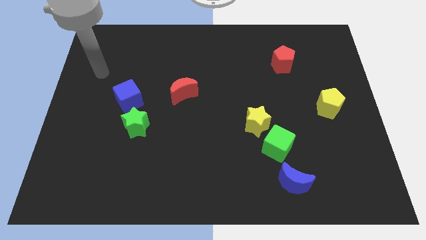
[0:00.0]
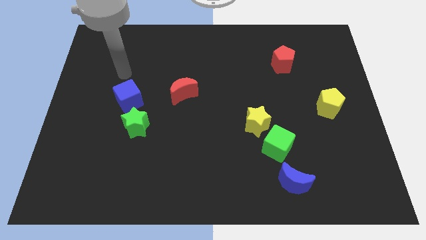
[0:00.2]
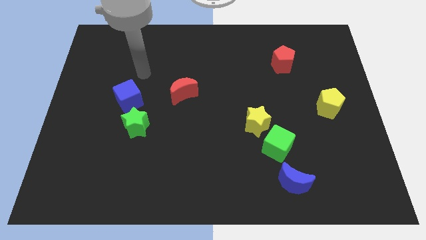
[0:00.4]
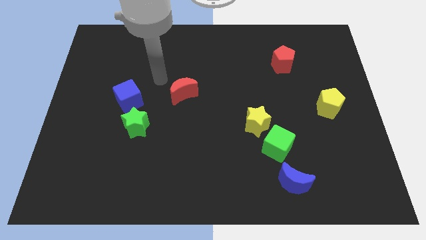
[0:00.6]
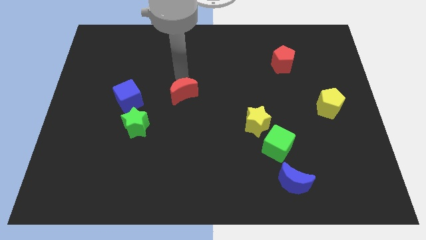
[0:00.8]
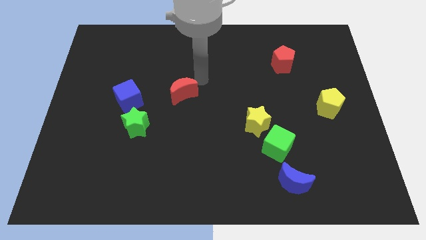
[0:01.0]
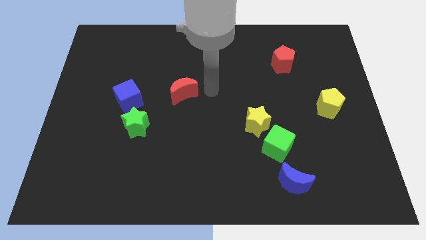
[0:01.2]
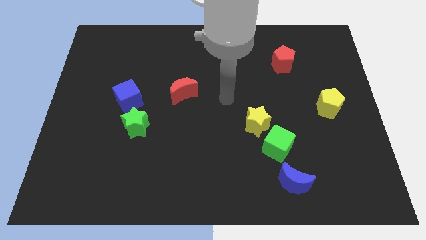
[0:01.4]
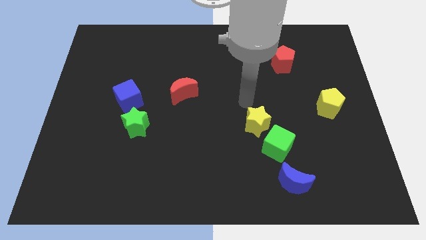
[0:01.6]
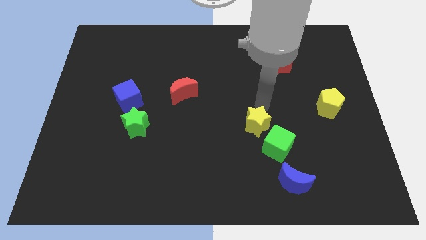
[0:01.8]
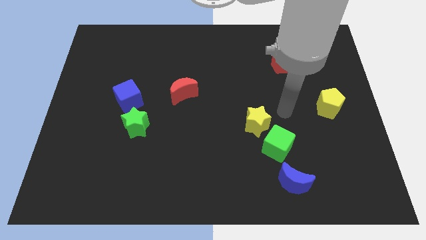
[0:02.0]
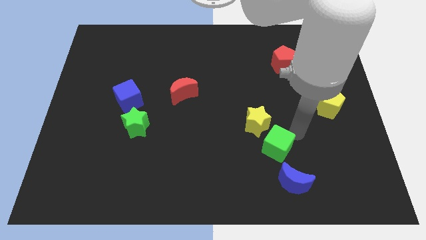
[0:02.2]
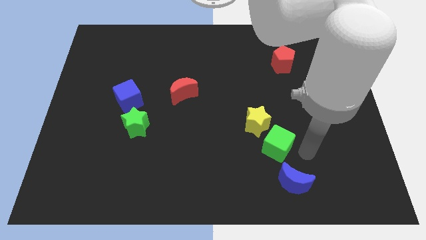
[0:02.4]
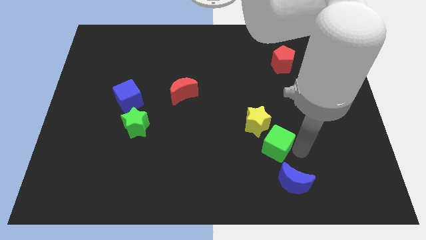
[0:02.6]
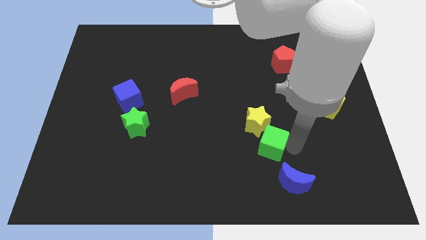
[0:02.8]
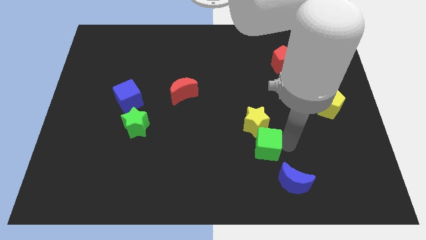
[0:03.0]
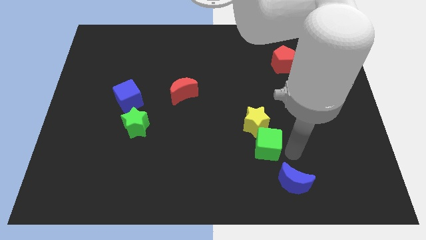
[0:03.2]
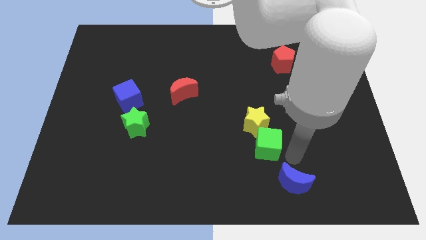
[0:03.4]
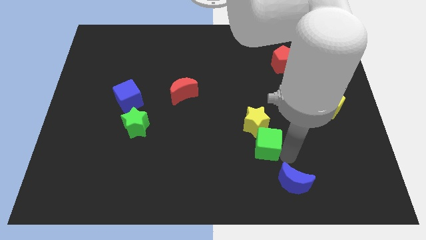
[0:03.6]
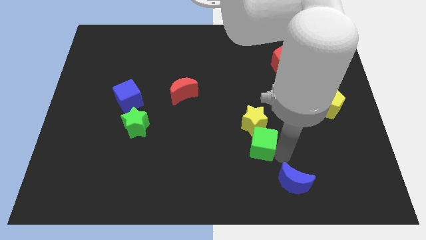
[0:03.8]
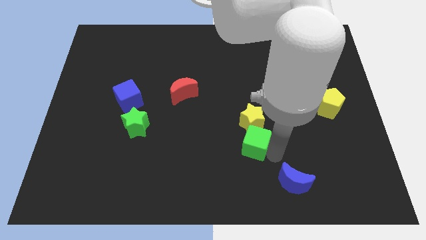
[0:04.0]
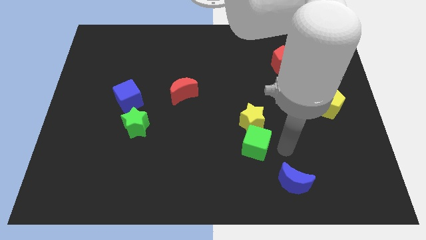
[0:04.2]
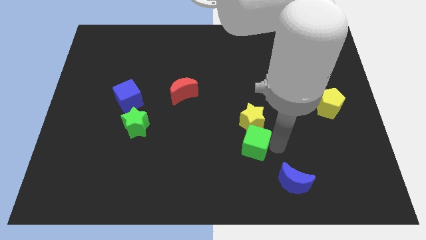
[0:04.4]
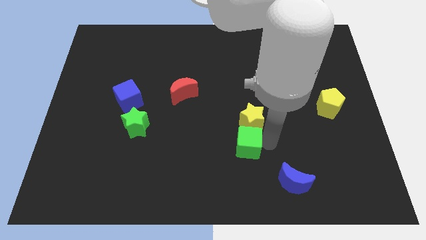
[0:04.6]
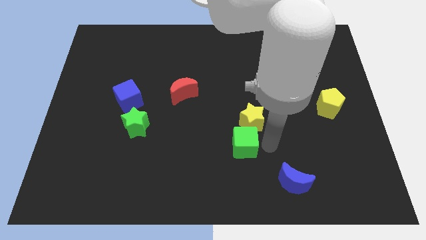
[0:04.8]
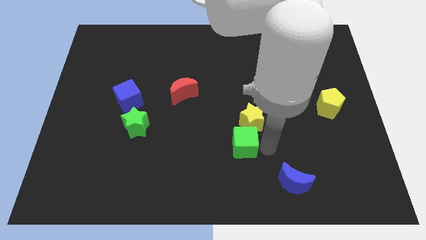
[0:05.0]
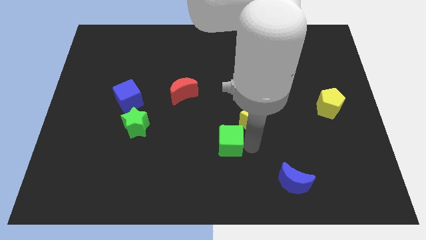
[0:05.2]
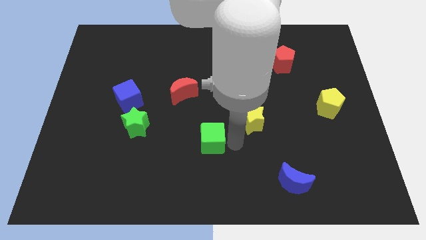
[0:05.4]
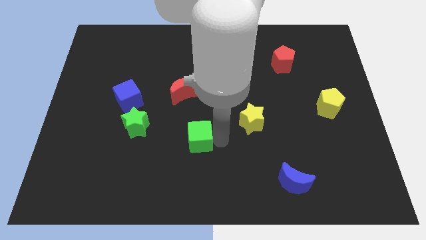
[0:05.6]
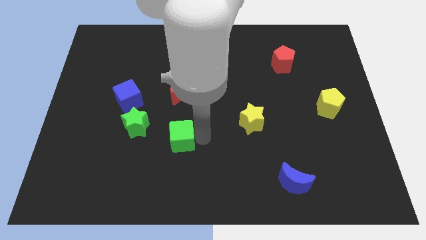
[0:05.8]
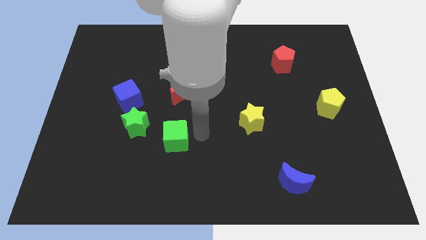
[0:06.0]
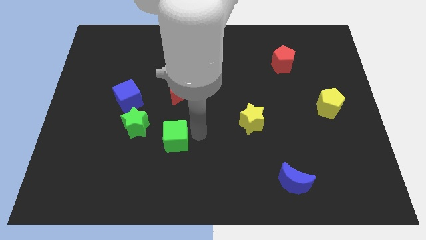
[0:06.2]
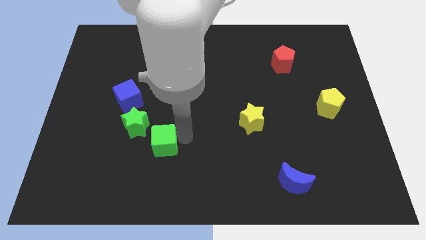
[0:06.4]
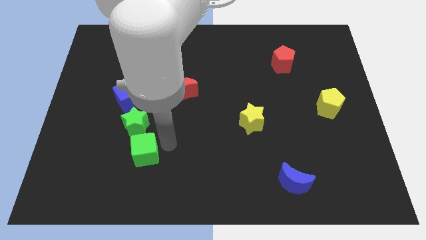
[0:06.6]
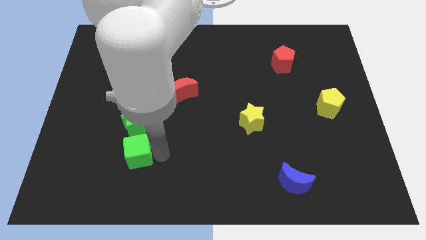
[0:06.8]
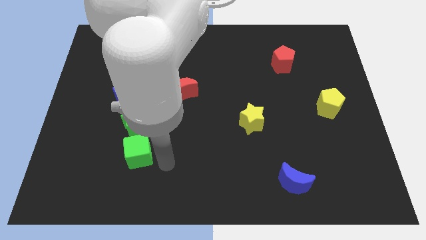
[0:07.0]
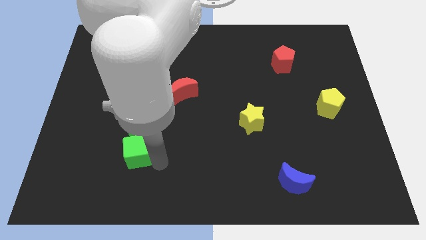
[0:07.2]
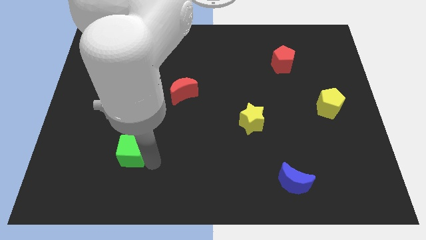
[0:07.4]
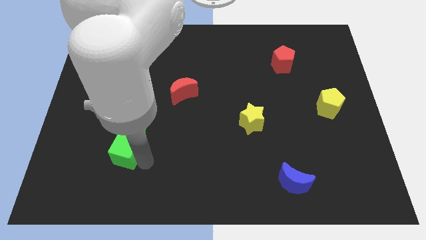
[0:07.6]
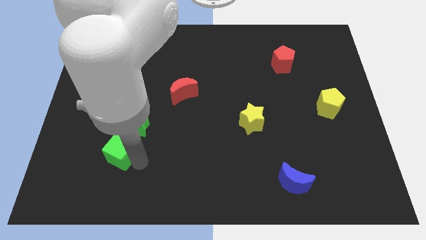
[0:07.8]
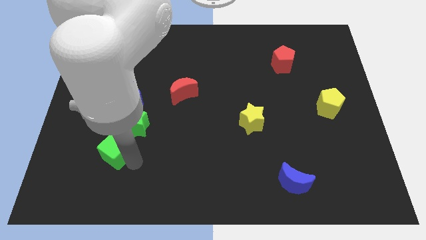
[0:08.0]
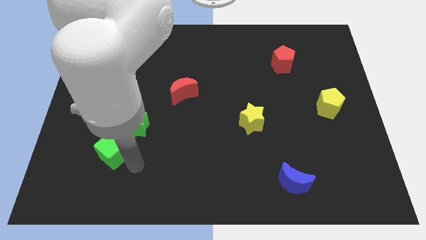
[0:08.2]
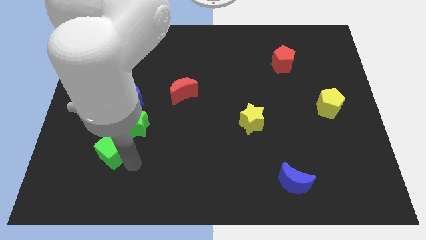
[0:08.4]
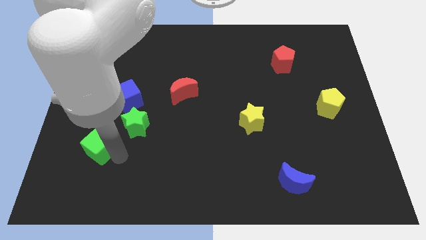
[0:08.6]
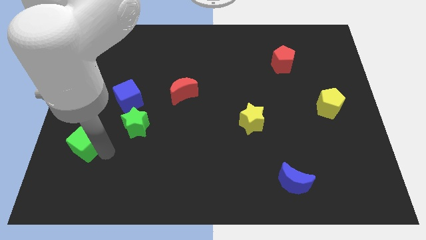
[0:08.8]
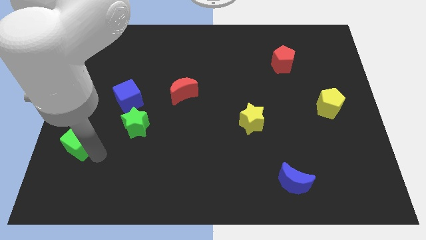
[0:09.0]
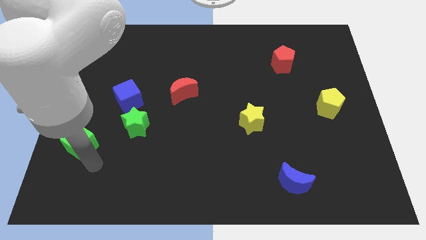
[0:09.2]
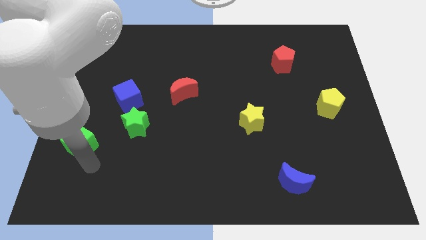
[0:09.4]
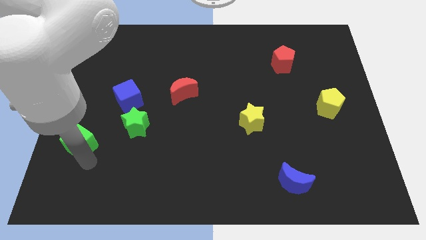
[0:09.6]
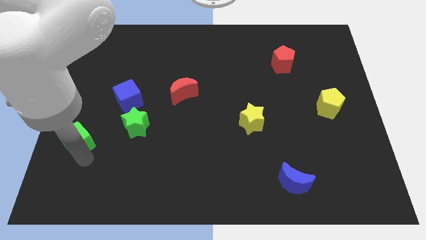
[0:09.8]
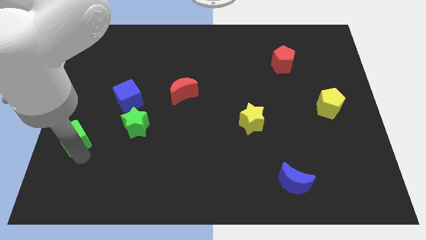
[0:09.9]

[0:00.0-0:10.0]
slide the green cube to the center left

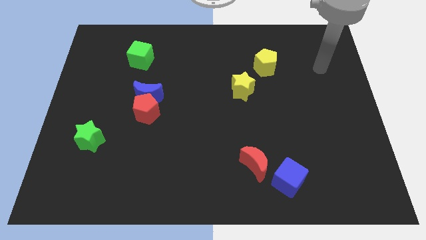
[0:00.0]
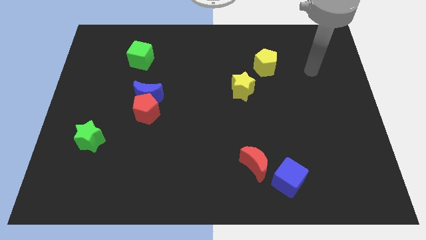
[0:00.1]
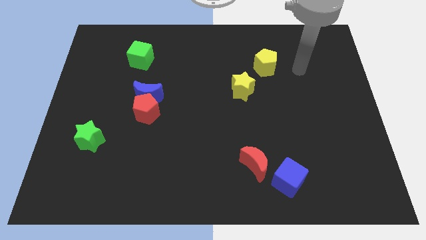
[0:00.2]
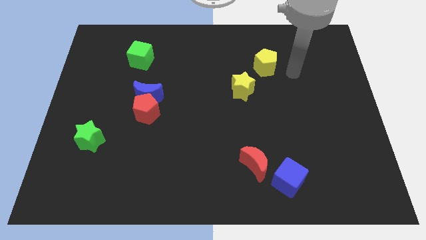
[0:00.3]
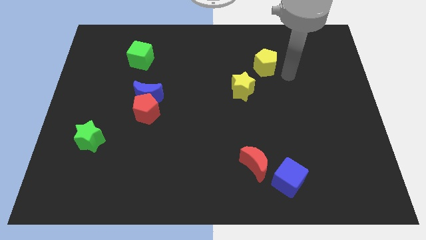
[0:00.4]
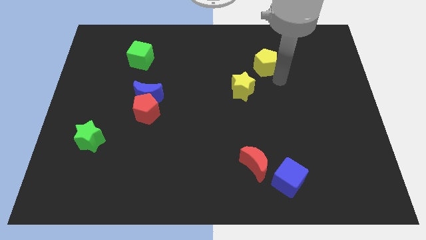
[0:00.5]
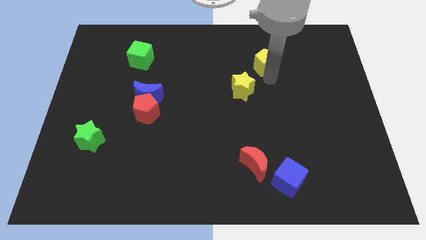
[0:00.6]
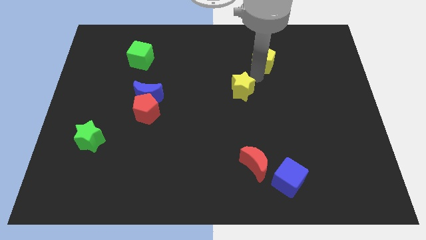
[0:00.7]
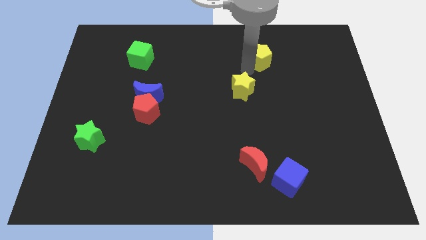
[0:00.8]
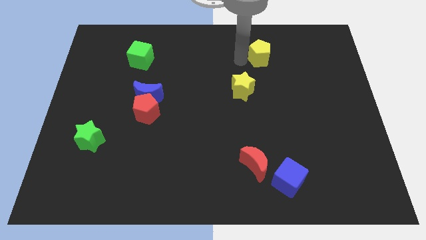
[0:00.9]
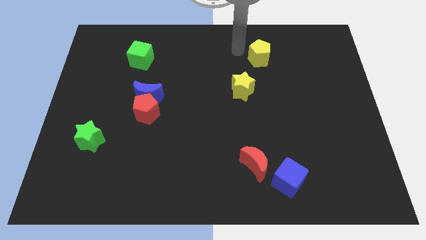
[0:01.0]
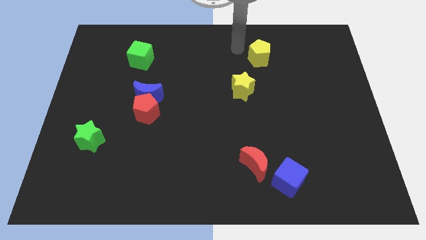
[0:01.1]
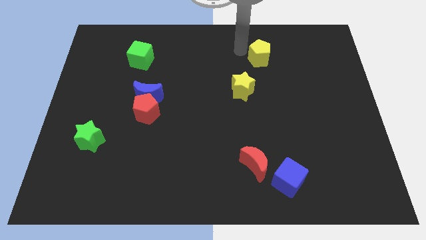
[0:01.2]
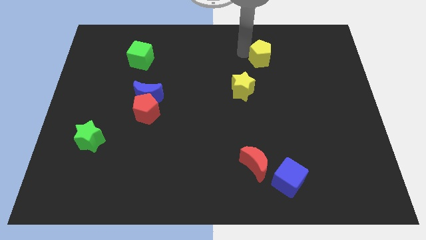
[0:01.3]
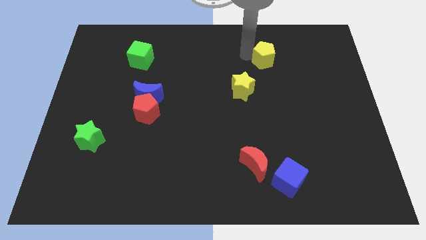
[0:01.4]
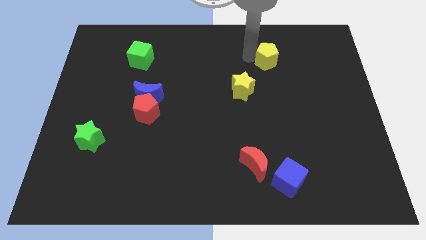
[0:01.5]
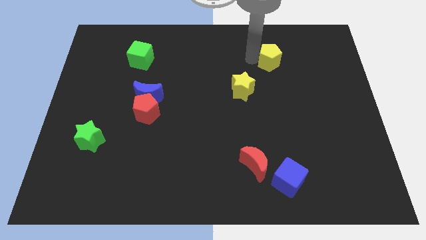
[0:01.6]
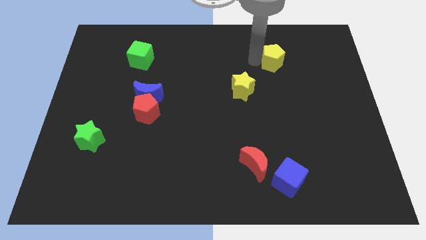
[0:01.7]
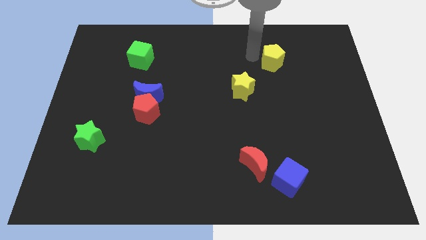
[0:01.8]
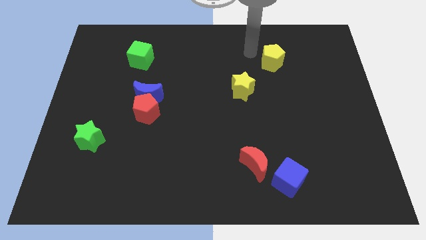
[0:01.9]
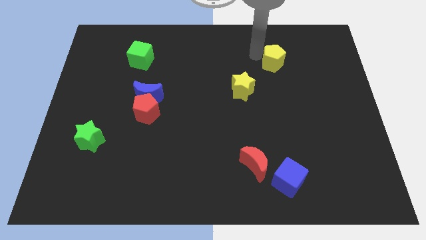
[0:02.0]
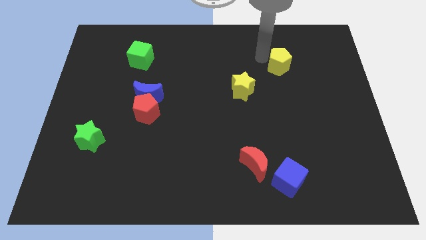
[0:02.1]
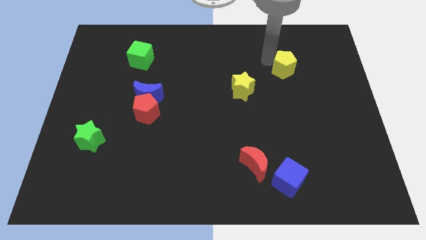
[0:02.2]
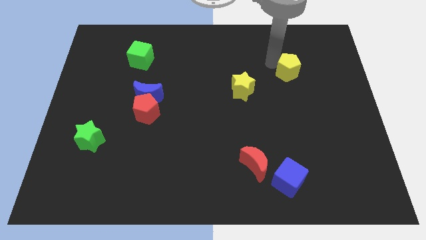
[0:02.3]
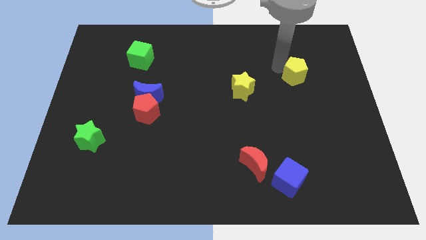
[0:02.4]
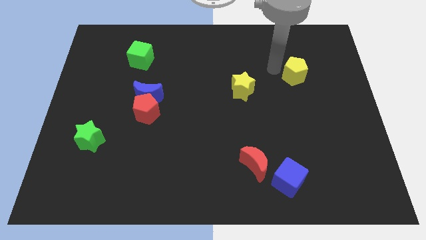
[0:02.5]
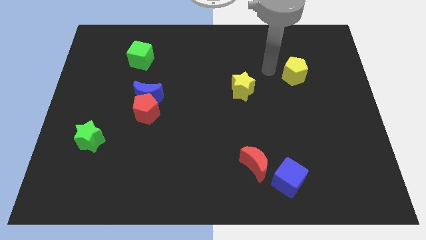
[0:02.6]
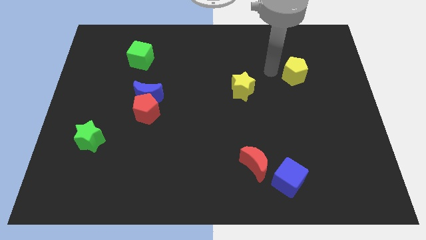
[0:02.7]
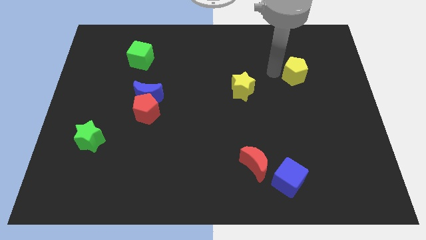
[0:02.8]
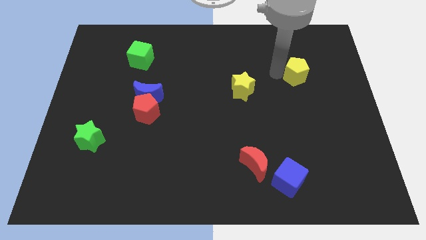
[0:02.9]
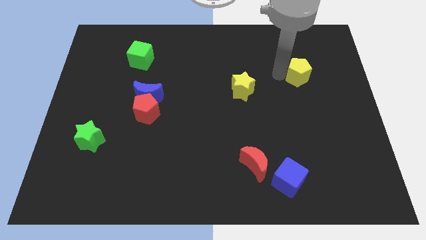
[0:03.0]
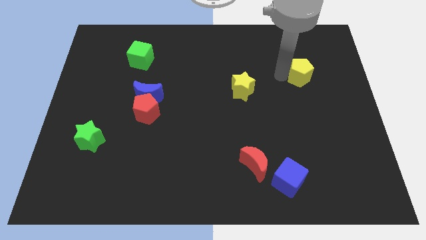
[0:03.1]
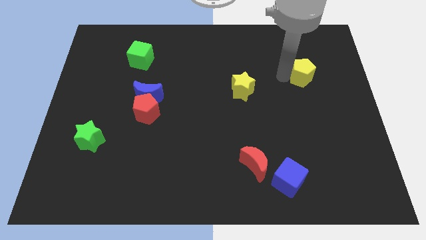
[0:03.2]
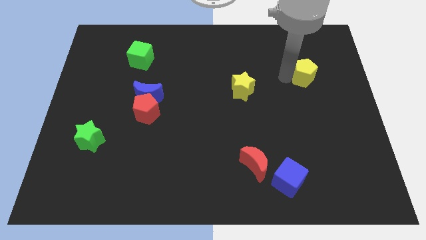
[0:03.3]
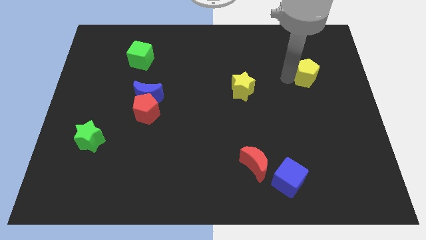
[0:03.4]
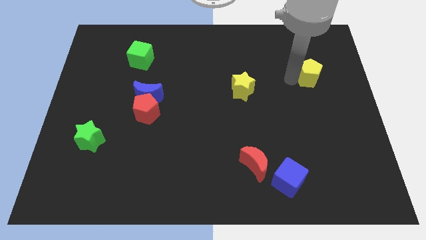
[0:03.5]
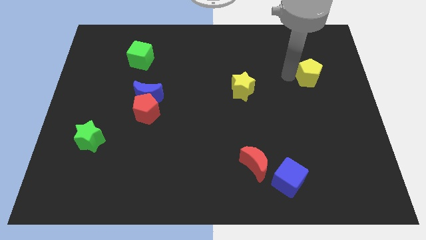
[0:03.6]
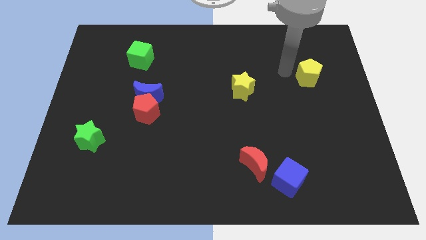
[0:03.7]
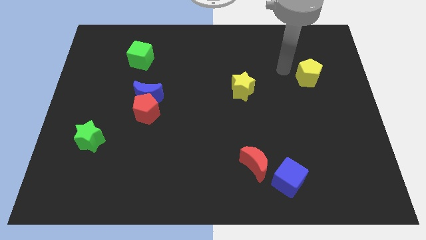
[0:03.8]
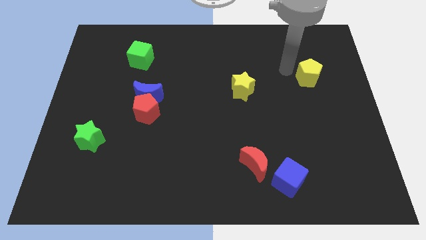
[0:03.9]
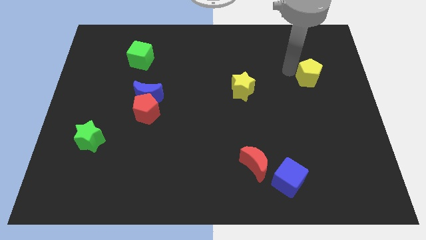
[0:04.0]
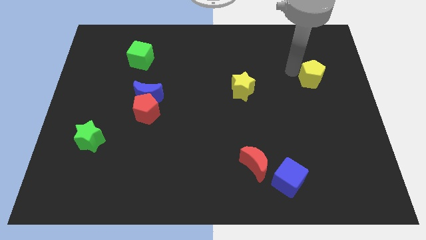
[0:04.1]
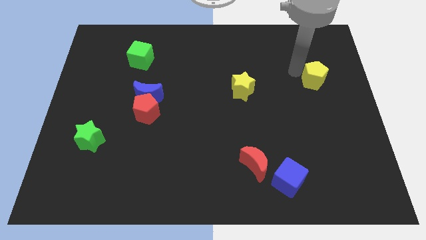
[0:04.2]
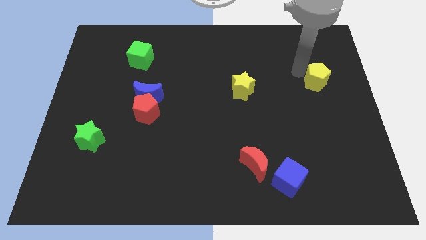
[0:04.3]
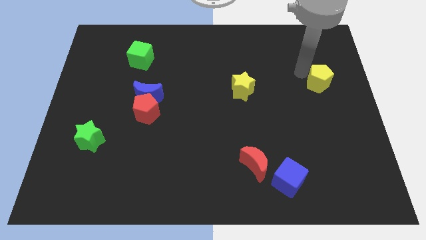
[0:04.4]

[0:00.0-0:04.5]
push the yellow pentagon to the right side of the board
